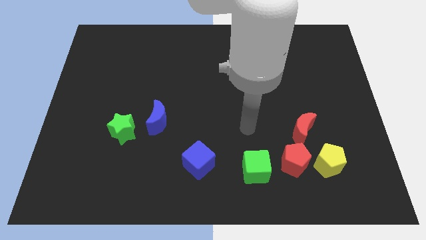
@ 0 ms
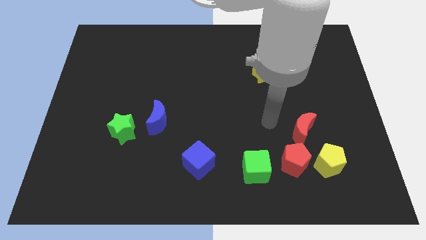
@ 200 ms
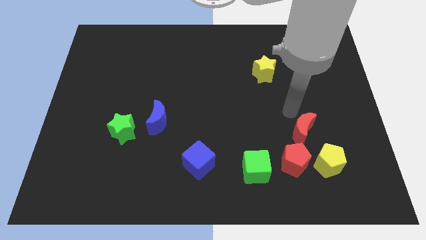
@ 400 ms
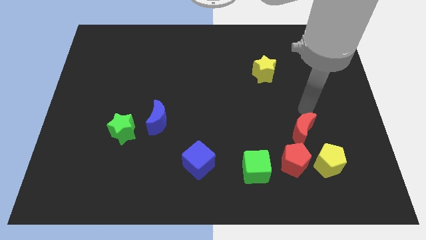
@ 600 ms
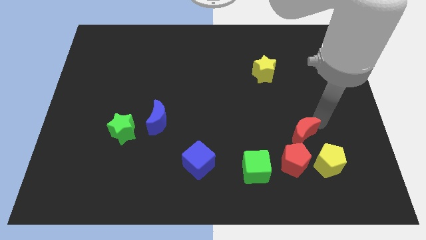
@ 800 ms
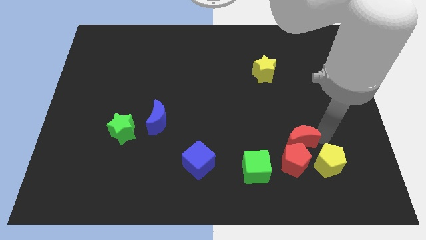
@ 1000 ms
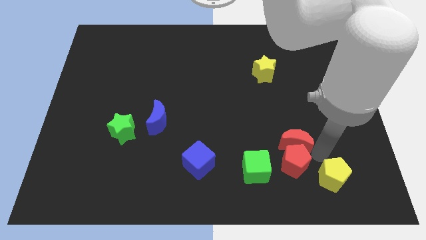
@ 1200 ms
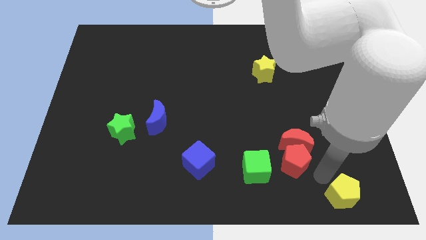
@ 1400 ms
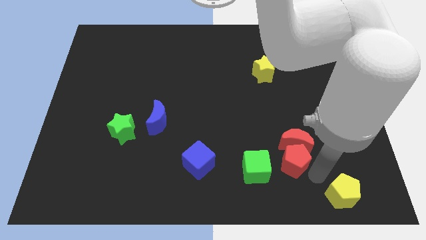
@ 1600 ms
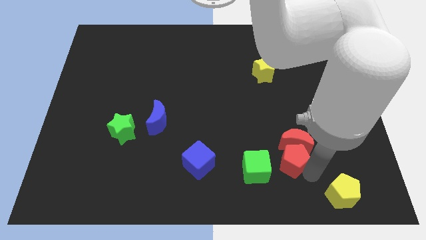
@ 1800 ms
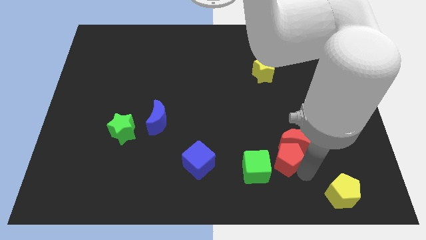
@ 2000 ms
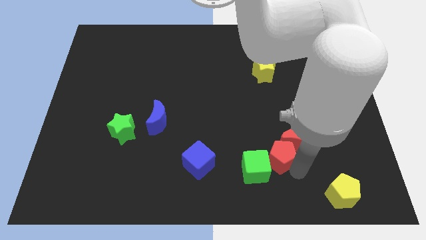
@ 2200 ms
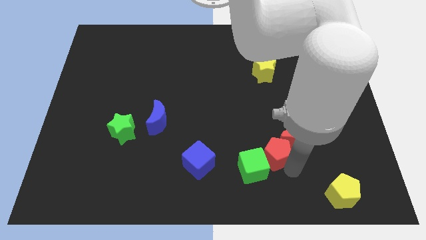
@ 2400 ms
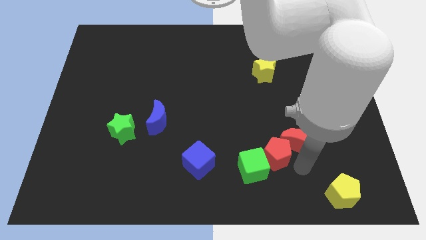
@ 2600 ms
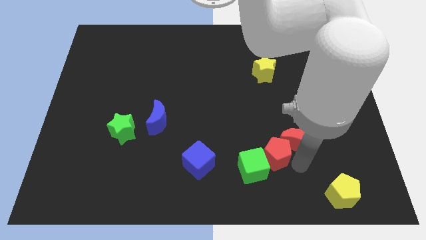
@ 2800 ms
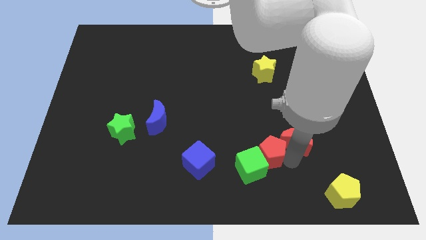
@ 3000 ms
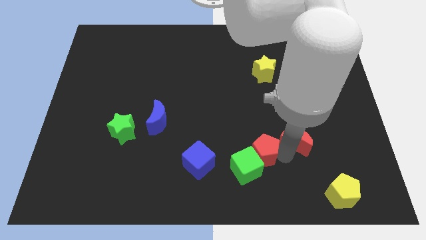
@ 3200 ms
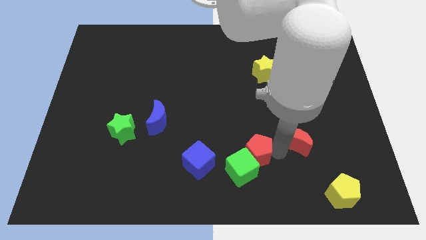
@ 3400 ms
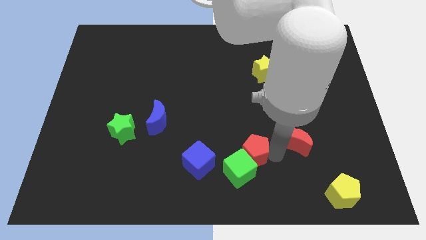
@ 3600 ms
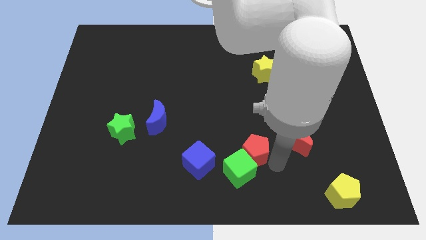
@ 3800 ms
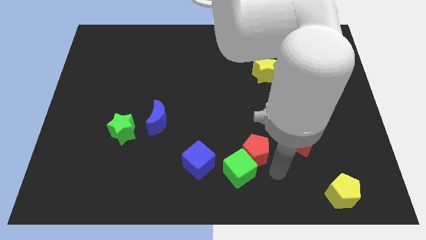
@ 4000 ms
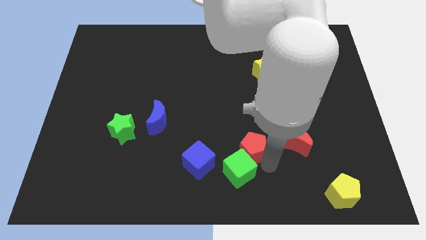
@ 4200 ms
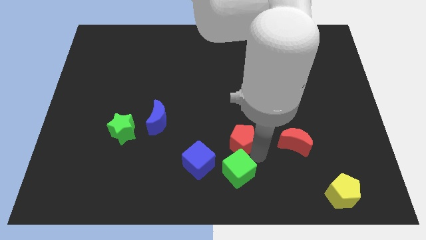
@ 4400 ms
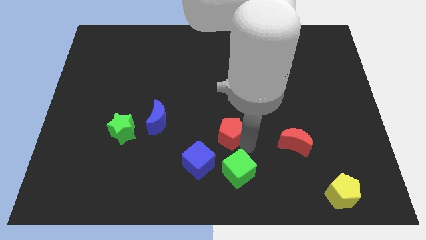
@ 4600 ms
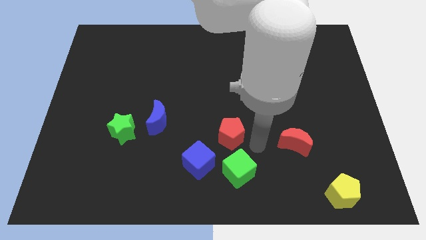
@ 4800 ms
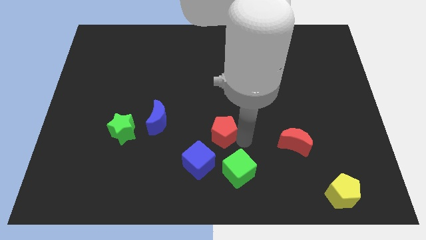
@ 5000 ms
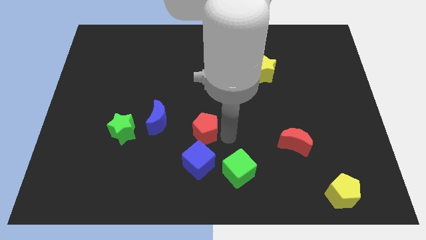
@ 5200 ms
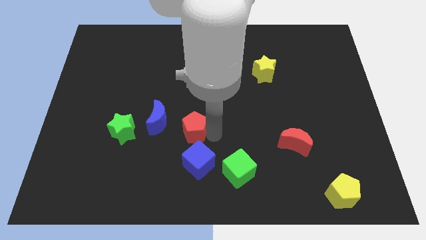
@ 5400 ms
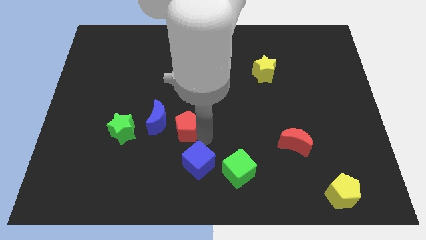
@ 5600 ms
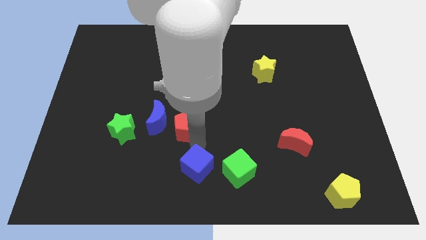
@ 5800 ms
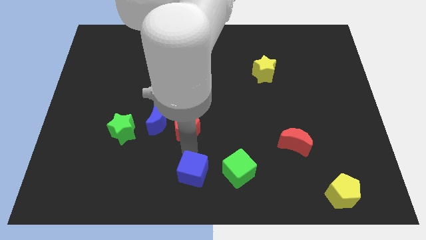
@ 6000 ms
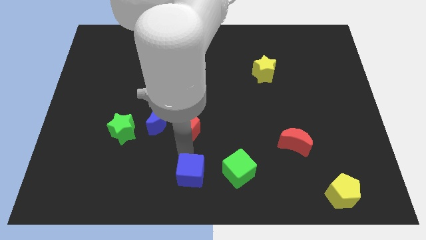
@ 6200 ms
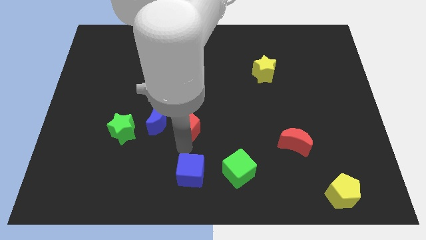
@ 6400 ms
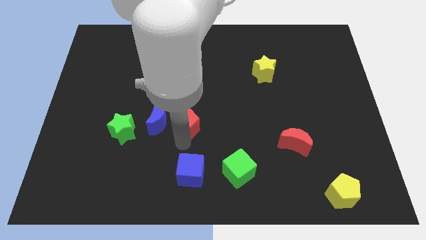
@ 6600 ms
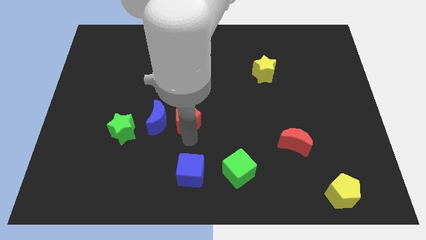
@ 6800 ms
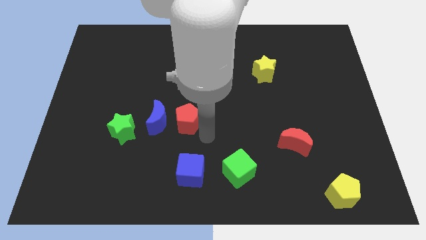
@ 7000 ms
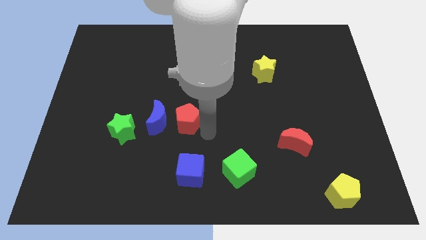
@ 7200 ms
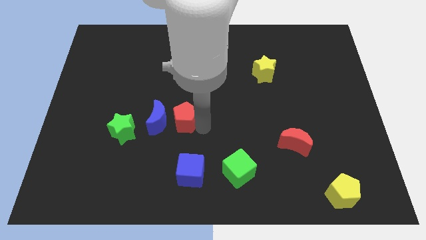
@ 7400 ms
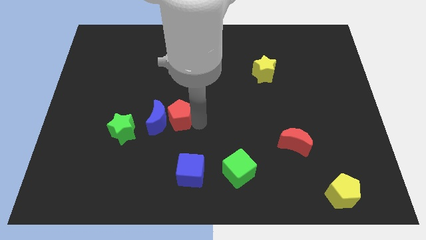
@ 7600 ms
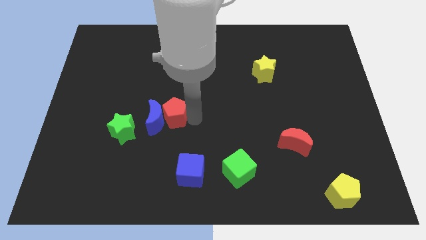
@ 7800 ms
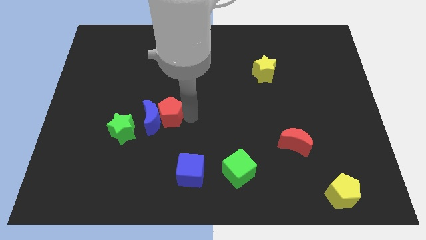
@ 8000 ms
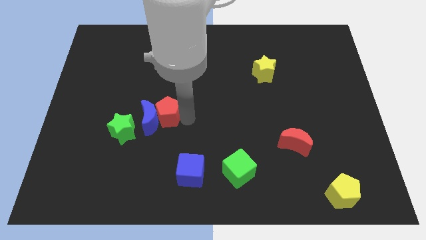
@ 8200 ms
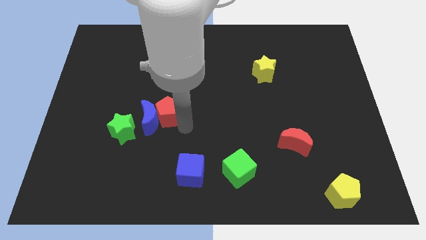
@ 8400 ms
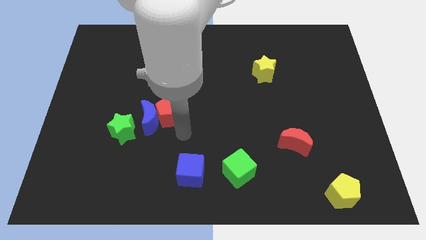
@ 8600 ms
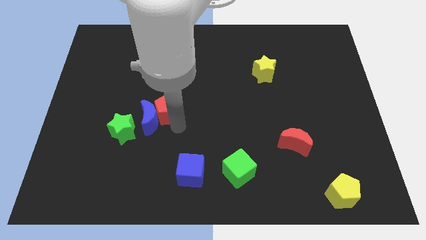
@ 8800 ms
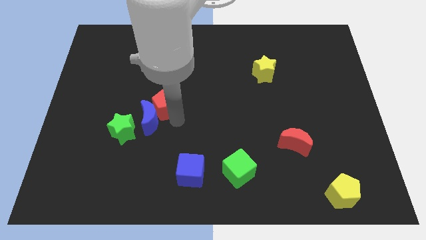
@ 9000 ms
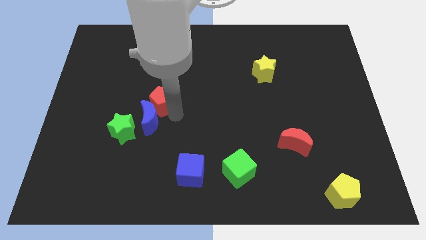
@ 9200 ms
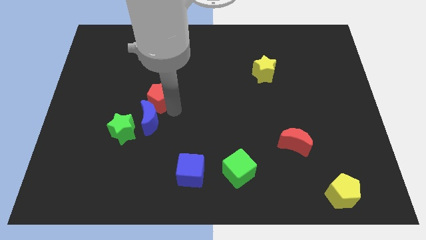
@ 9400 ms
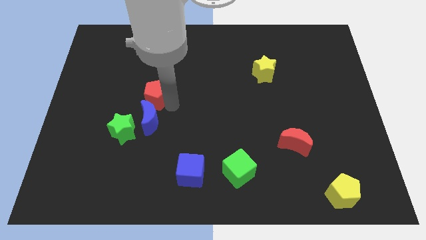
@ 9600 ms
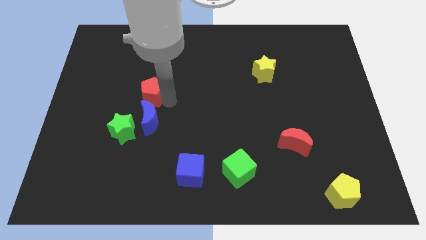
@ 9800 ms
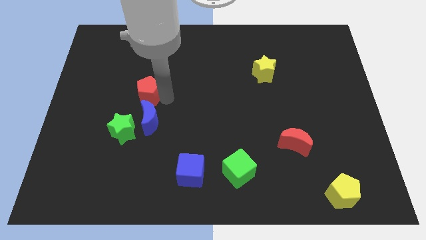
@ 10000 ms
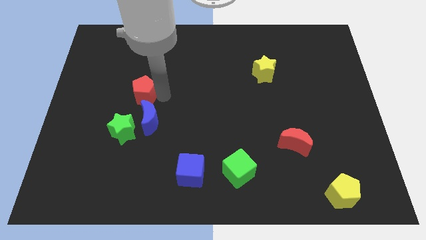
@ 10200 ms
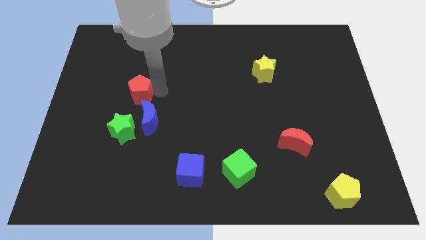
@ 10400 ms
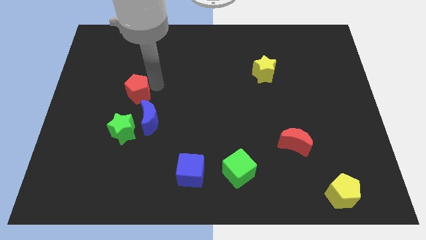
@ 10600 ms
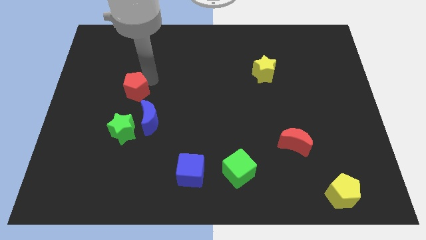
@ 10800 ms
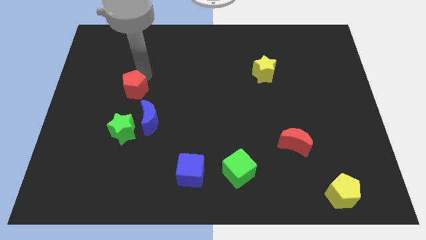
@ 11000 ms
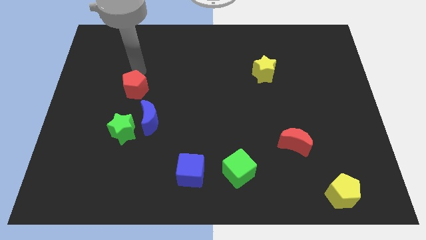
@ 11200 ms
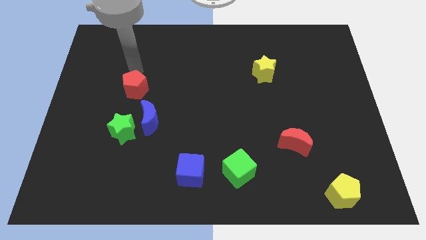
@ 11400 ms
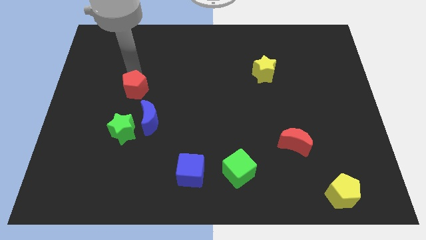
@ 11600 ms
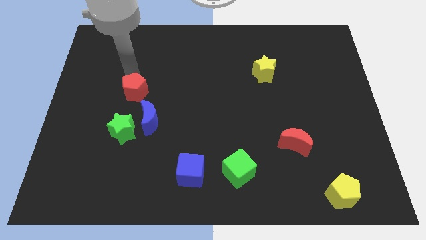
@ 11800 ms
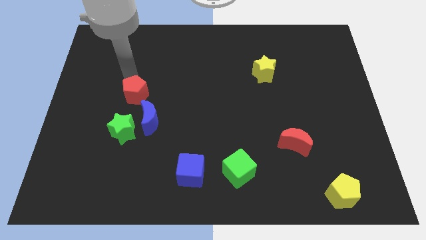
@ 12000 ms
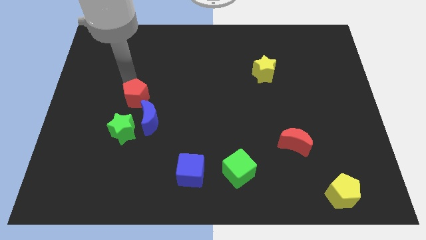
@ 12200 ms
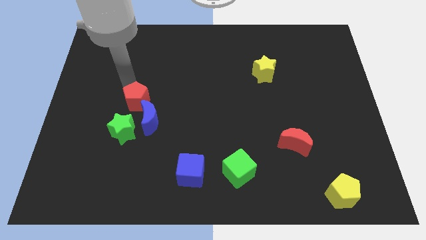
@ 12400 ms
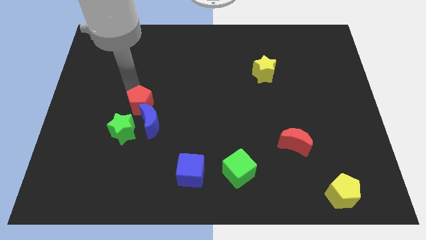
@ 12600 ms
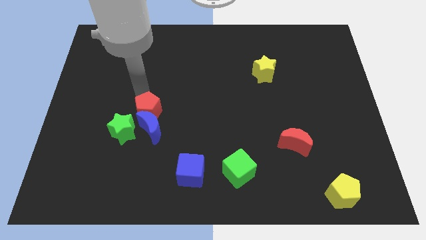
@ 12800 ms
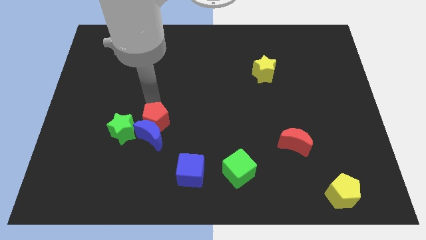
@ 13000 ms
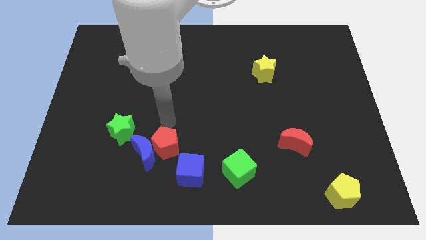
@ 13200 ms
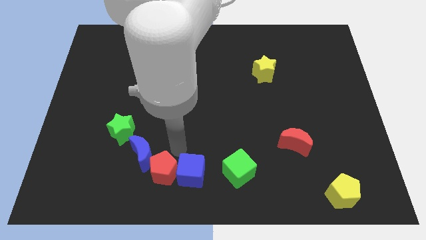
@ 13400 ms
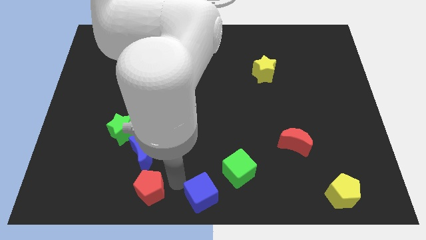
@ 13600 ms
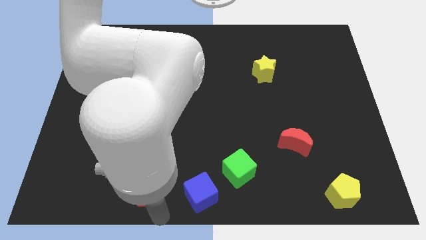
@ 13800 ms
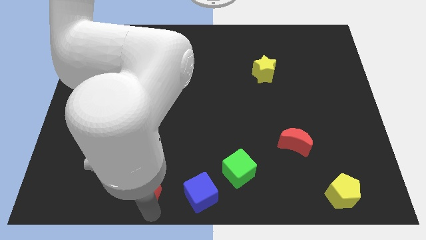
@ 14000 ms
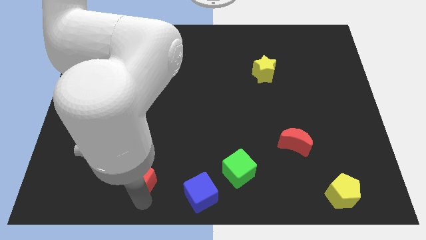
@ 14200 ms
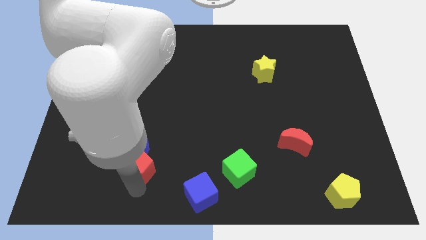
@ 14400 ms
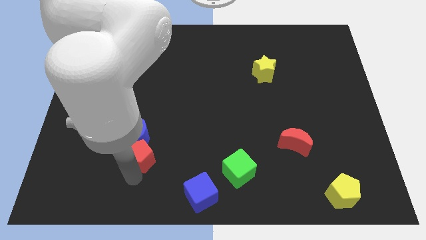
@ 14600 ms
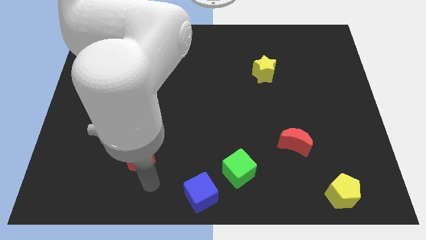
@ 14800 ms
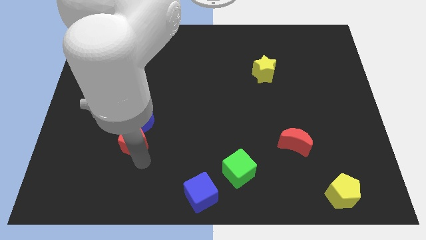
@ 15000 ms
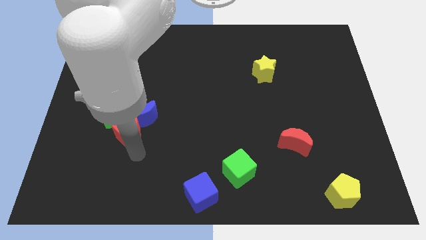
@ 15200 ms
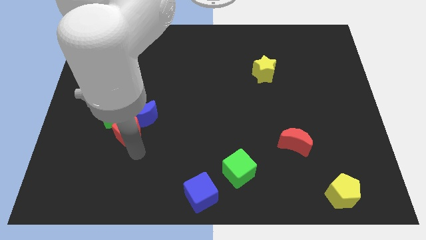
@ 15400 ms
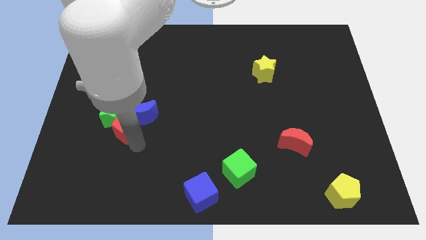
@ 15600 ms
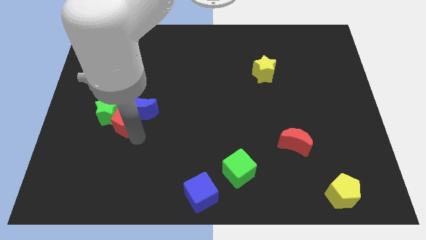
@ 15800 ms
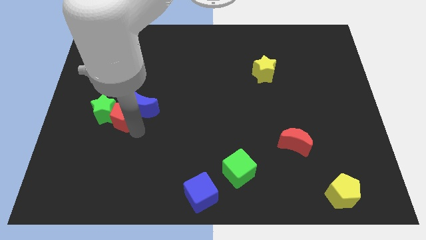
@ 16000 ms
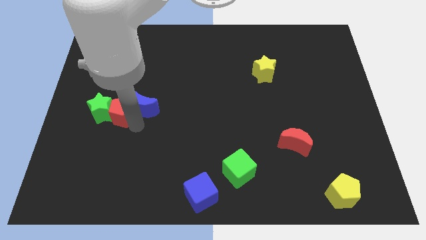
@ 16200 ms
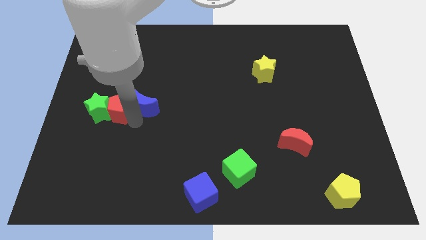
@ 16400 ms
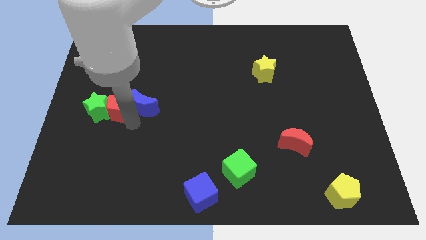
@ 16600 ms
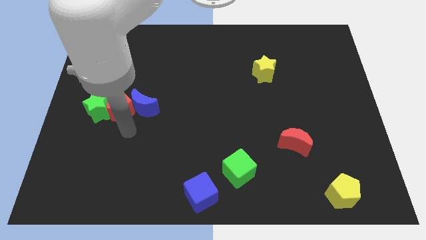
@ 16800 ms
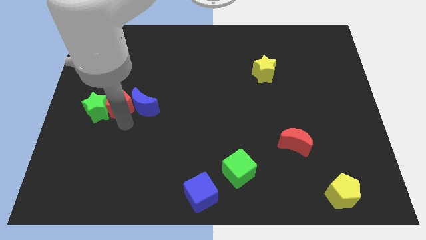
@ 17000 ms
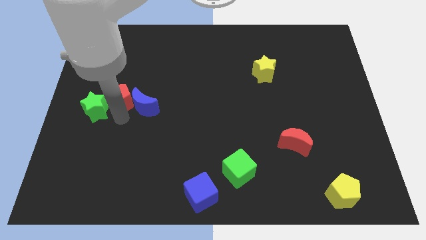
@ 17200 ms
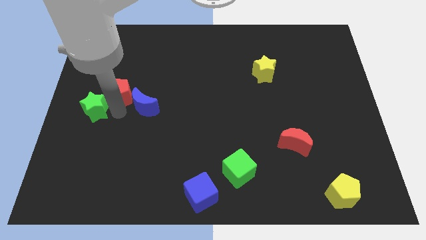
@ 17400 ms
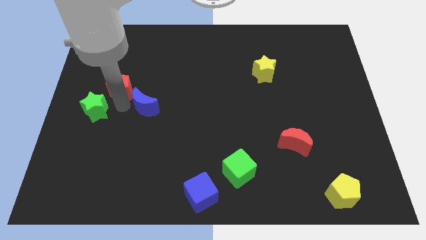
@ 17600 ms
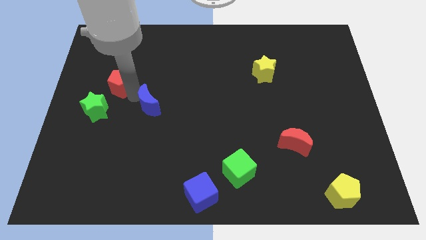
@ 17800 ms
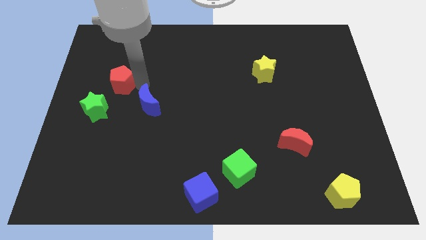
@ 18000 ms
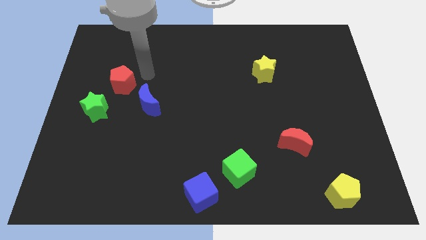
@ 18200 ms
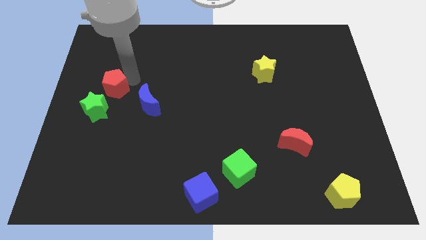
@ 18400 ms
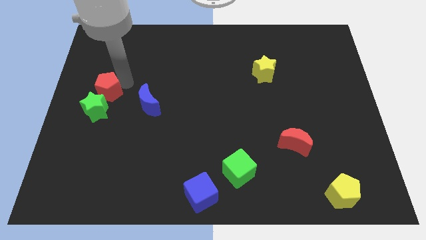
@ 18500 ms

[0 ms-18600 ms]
move the red pentagon to the left side of the board
